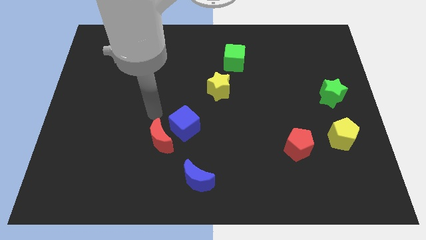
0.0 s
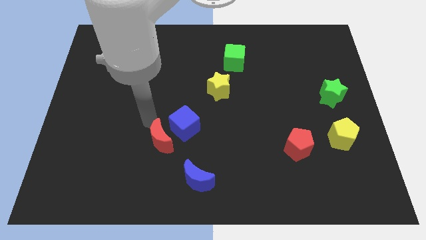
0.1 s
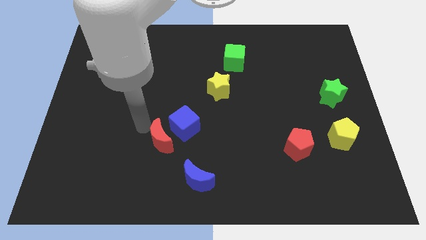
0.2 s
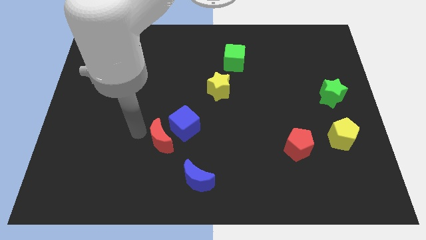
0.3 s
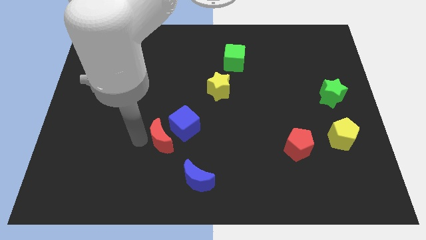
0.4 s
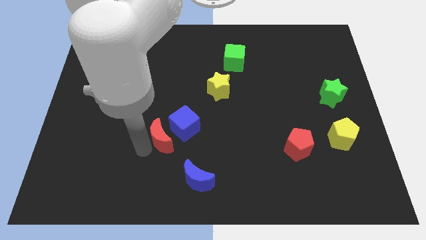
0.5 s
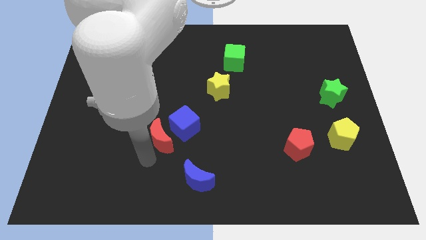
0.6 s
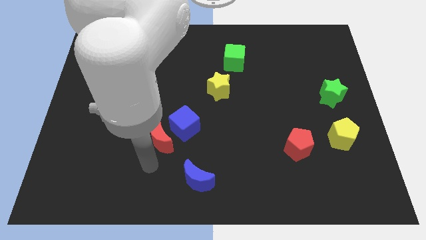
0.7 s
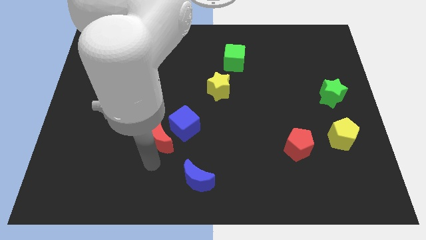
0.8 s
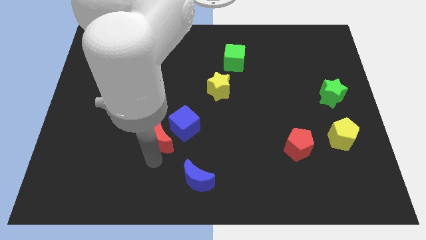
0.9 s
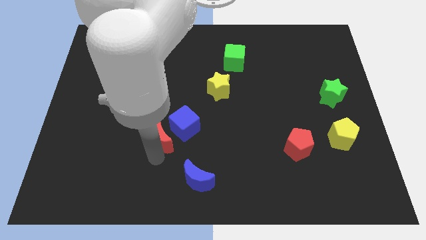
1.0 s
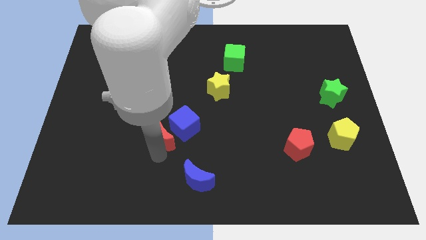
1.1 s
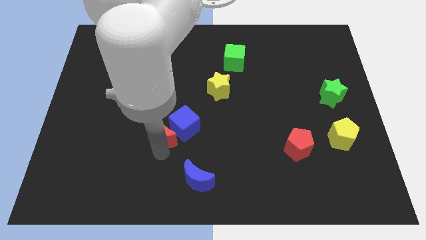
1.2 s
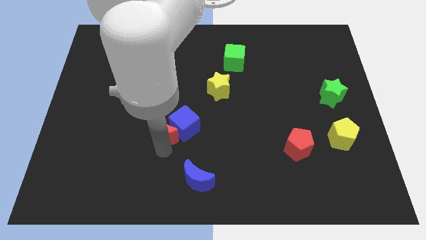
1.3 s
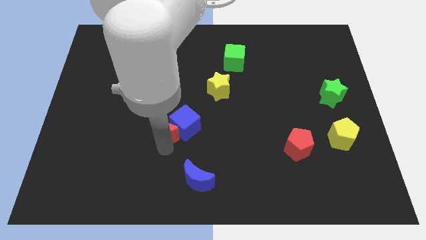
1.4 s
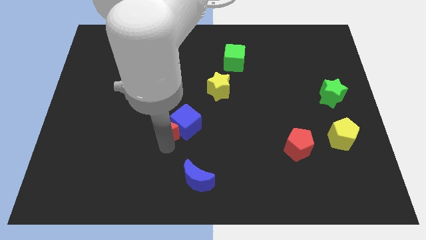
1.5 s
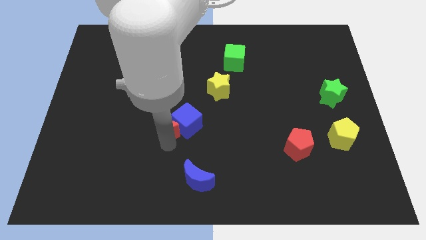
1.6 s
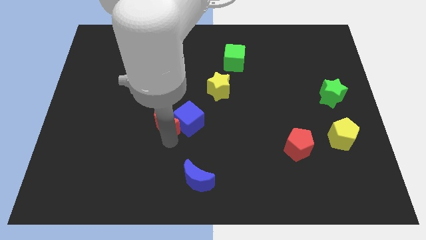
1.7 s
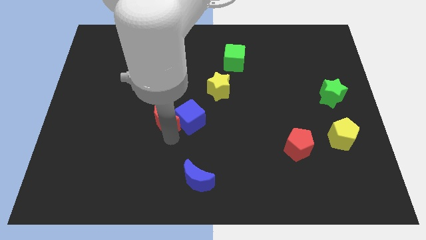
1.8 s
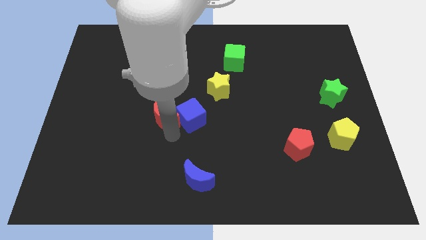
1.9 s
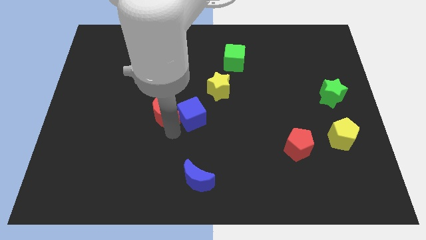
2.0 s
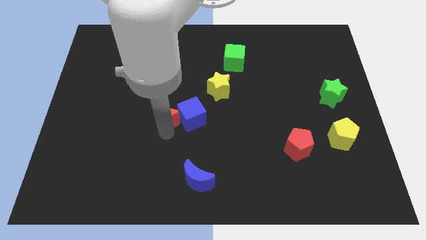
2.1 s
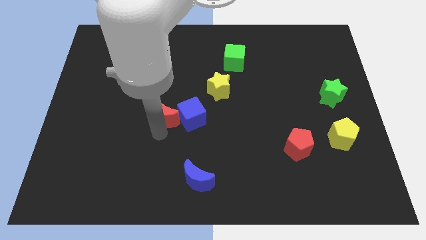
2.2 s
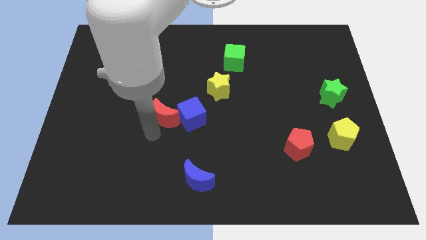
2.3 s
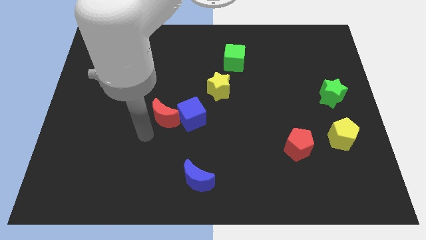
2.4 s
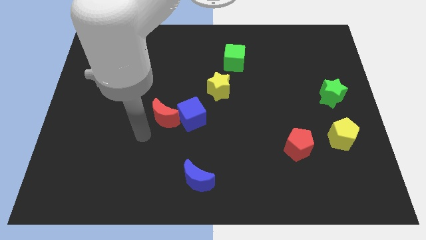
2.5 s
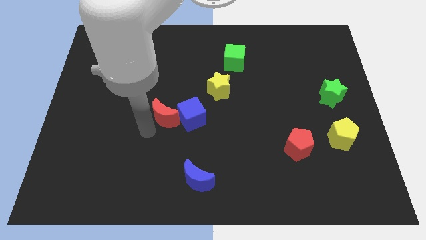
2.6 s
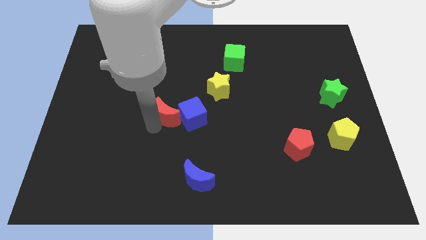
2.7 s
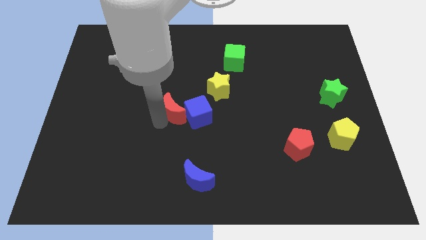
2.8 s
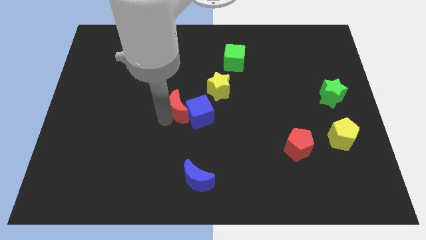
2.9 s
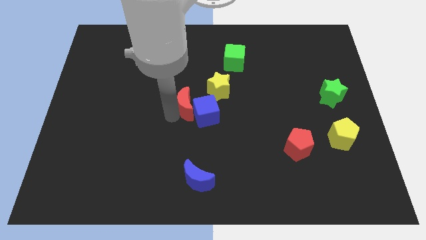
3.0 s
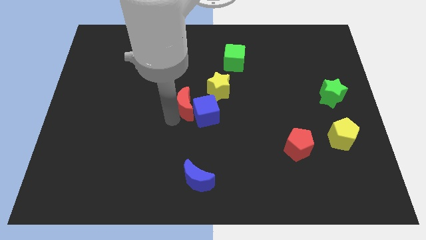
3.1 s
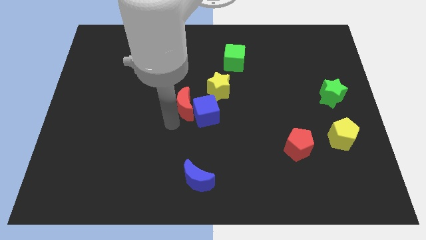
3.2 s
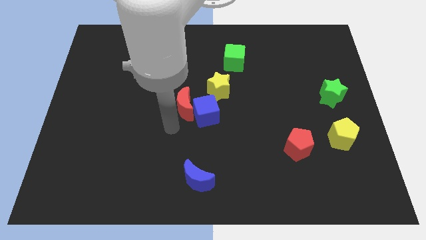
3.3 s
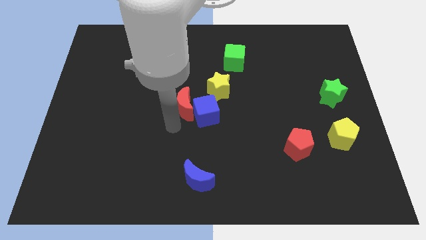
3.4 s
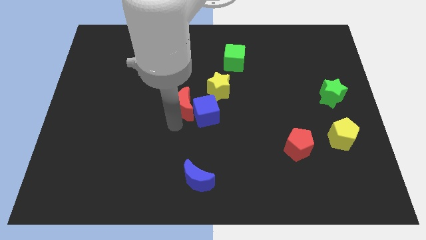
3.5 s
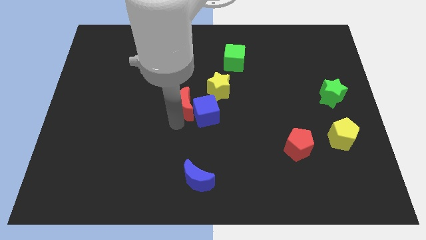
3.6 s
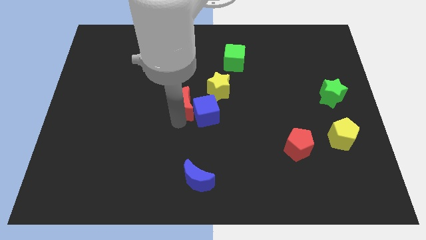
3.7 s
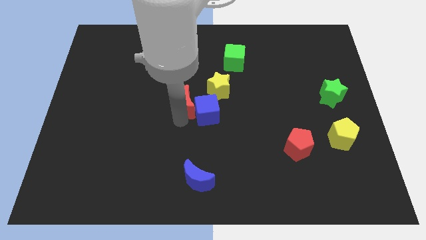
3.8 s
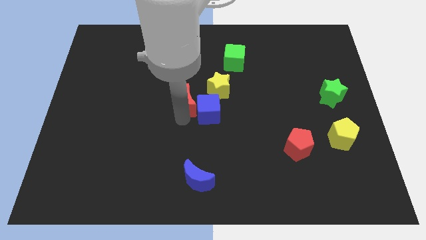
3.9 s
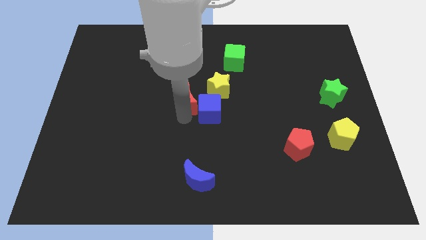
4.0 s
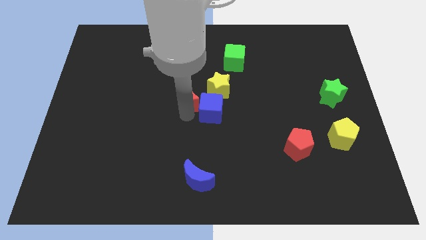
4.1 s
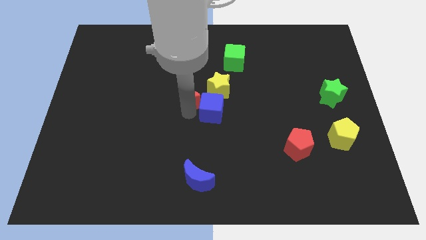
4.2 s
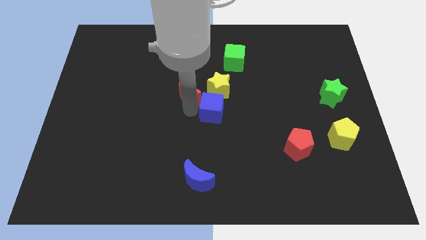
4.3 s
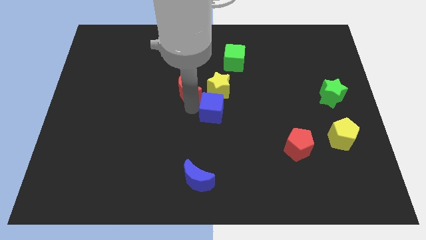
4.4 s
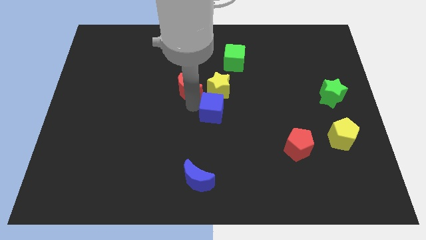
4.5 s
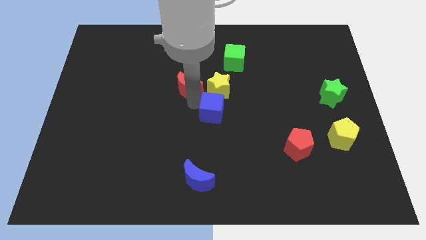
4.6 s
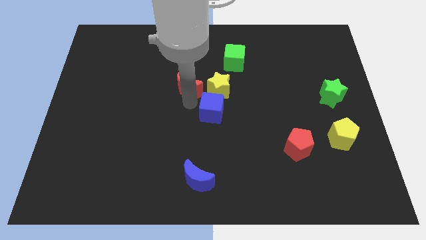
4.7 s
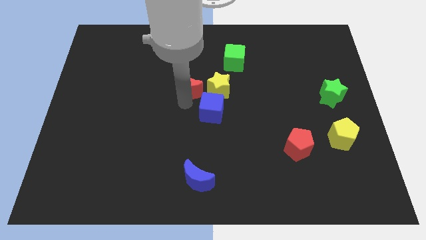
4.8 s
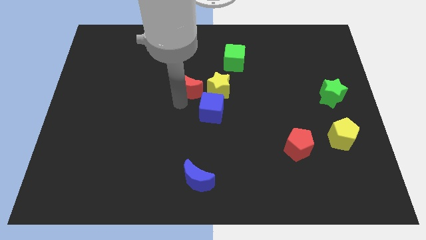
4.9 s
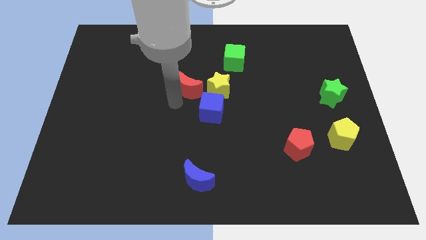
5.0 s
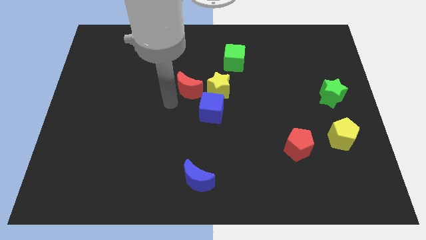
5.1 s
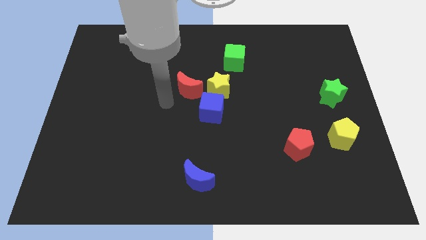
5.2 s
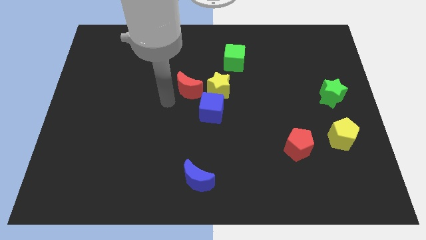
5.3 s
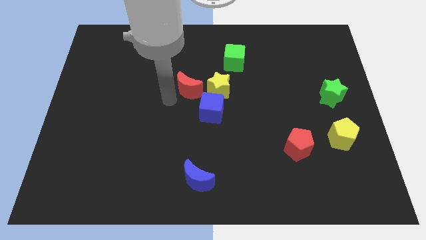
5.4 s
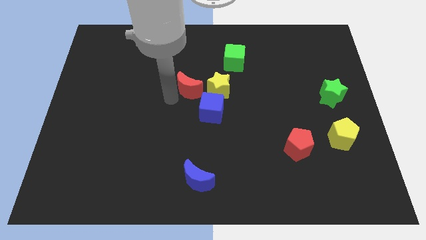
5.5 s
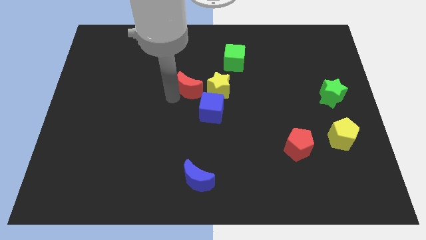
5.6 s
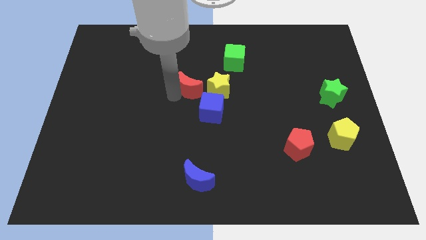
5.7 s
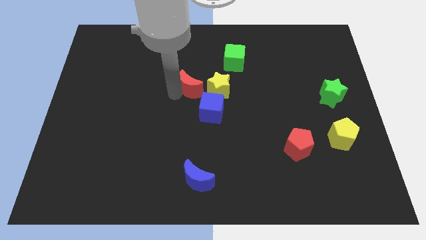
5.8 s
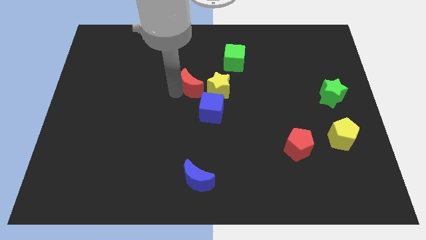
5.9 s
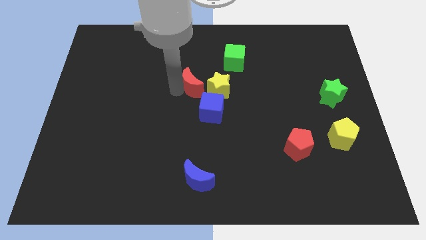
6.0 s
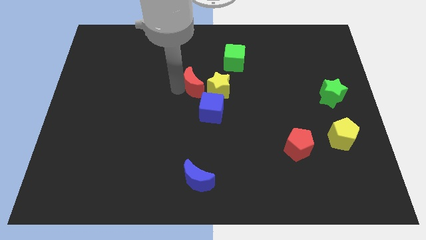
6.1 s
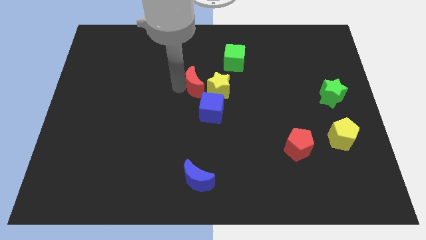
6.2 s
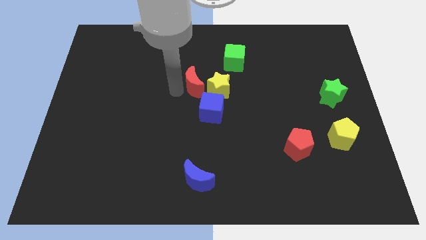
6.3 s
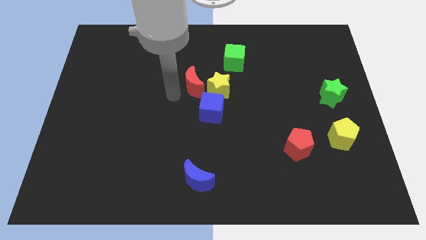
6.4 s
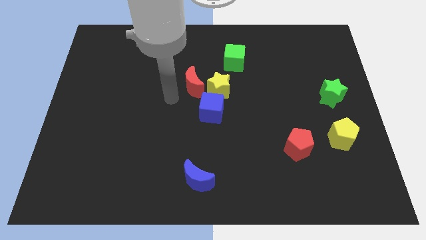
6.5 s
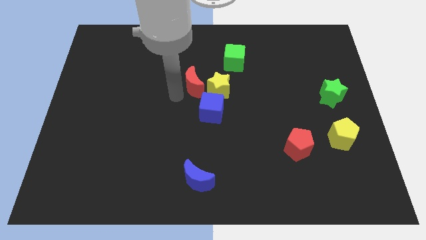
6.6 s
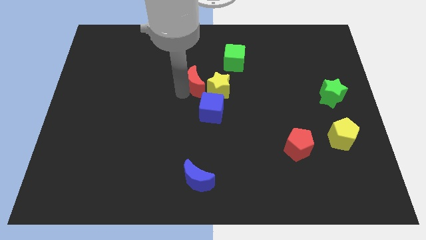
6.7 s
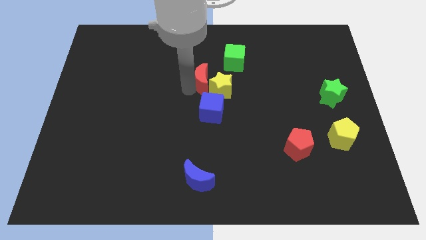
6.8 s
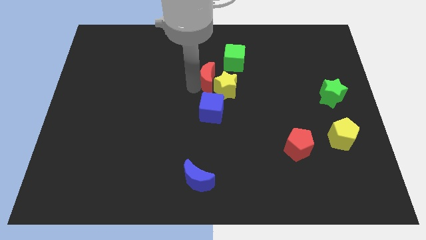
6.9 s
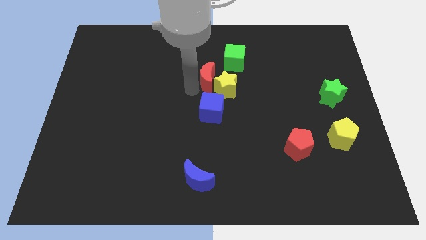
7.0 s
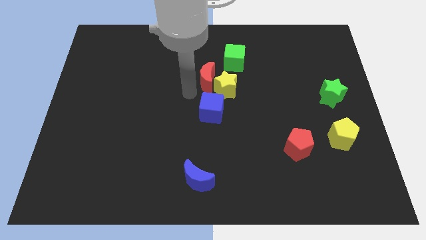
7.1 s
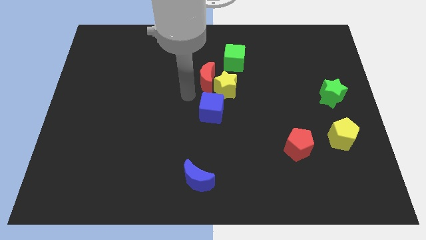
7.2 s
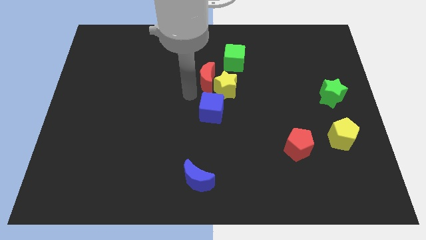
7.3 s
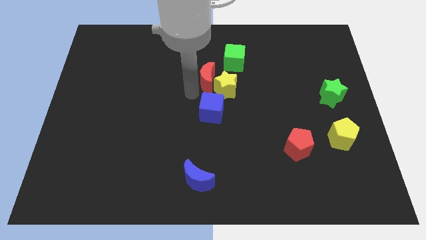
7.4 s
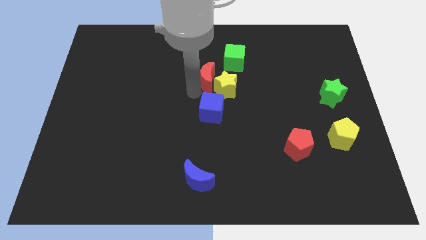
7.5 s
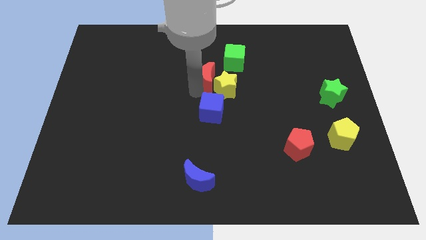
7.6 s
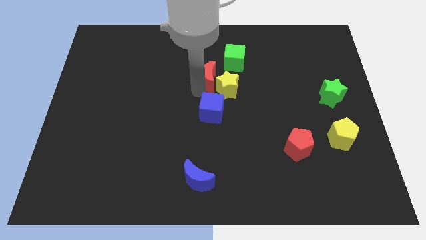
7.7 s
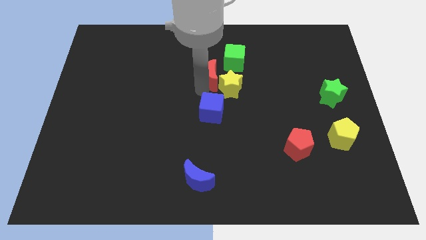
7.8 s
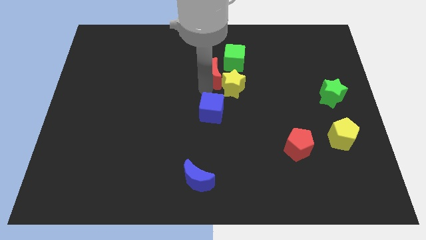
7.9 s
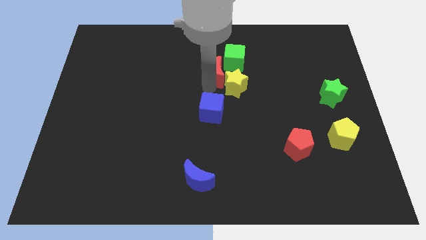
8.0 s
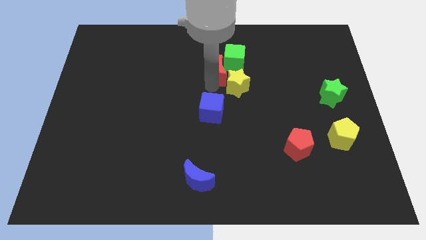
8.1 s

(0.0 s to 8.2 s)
put the red moon close to the green cube
